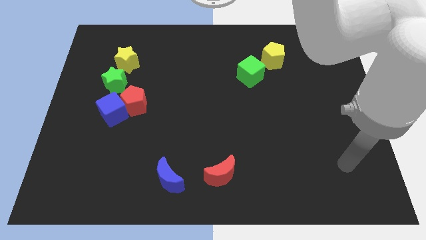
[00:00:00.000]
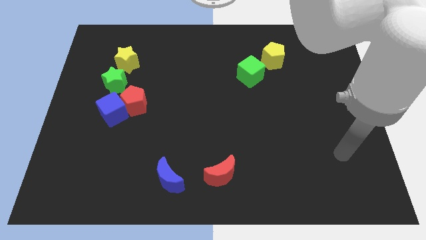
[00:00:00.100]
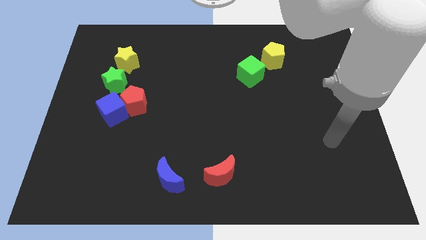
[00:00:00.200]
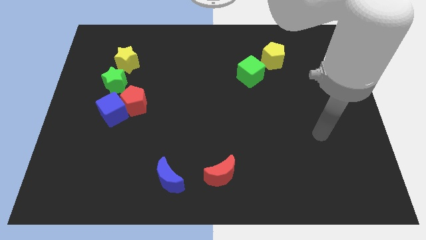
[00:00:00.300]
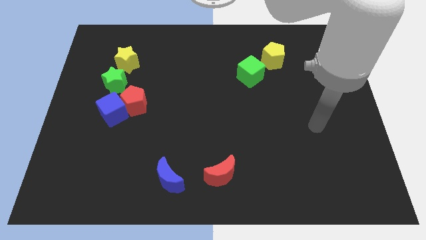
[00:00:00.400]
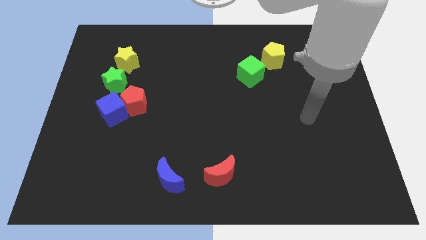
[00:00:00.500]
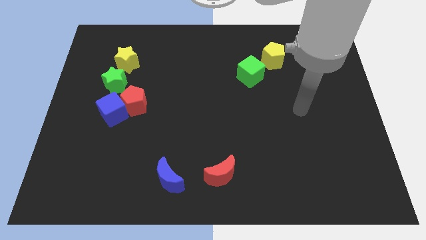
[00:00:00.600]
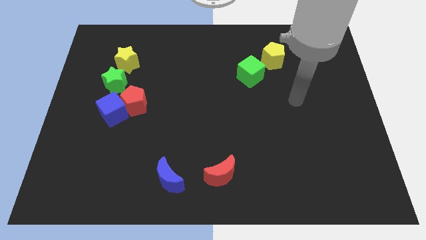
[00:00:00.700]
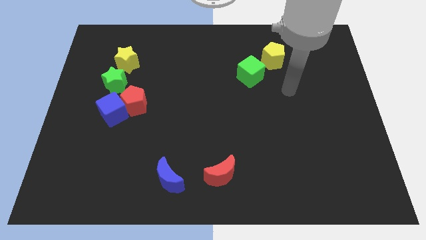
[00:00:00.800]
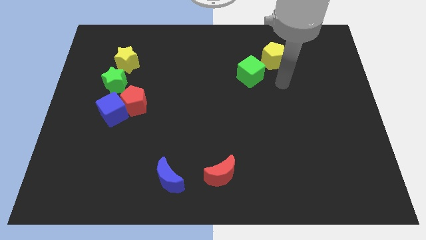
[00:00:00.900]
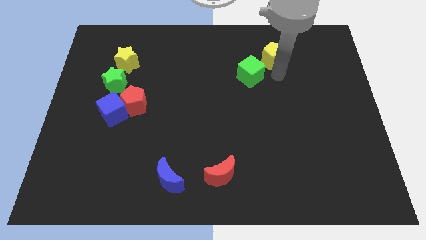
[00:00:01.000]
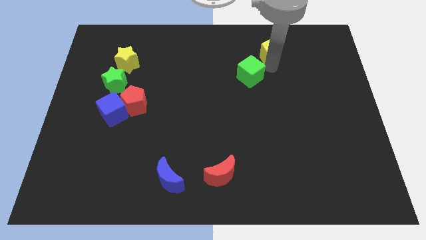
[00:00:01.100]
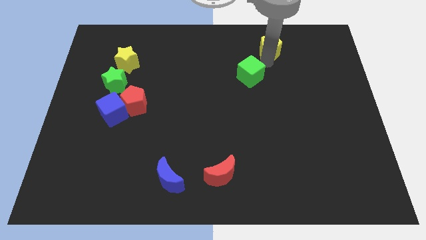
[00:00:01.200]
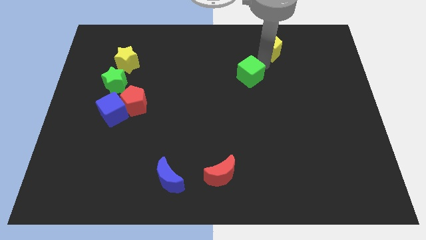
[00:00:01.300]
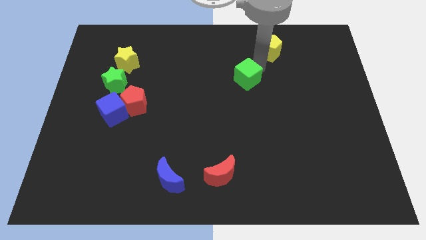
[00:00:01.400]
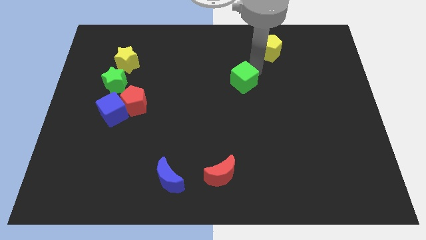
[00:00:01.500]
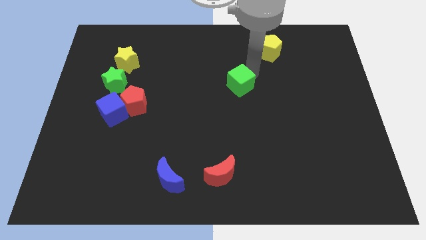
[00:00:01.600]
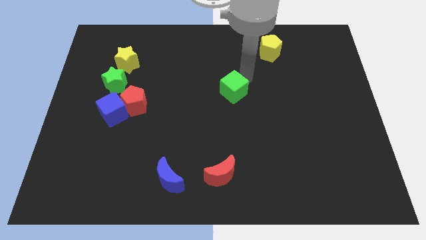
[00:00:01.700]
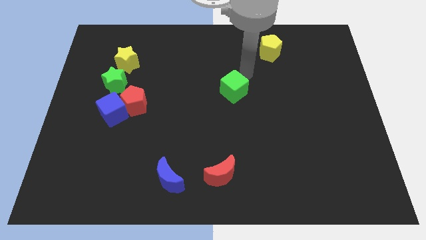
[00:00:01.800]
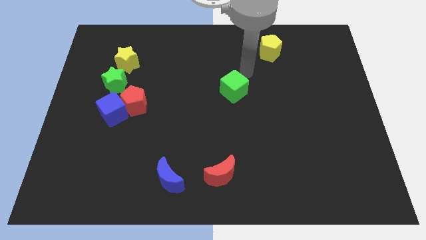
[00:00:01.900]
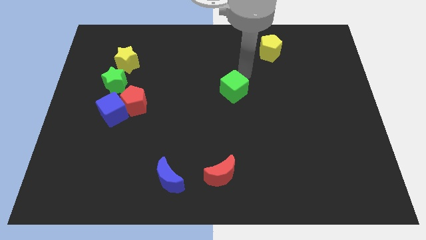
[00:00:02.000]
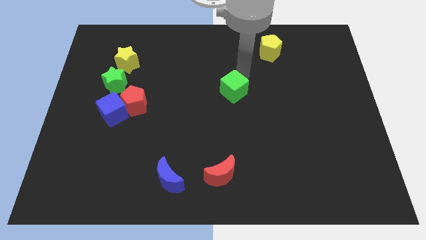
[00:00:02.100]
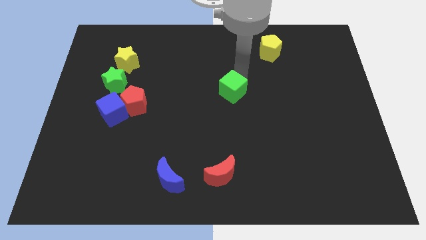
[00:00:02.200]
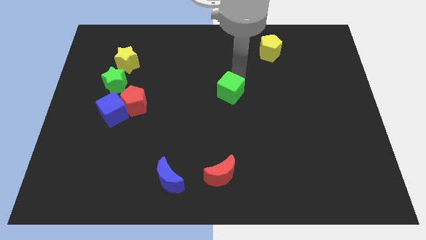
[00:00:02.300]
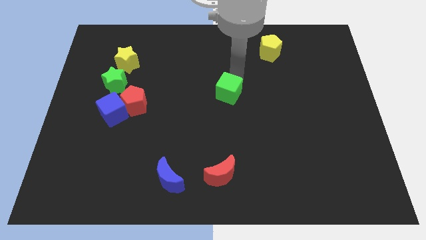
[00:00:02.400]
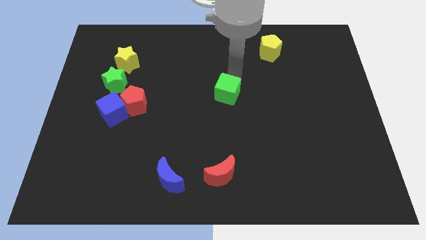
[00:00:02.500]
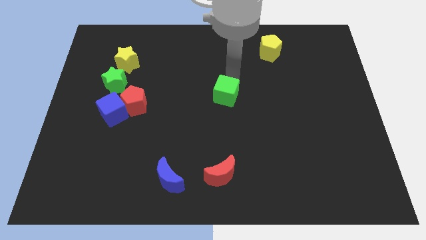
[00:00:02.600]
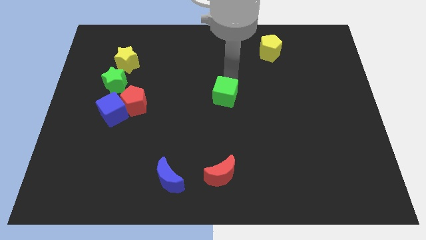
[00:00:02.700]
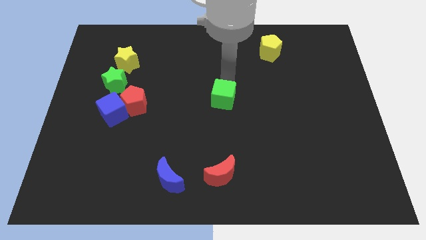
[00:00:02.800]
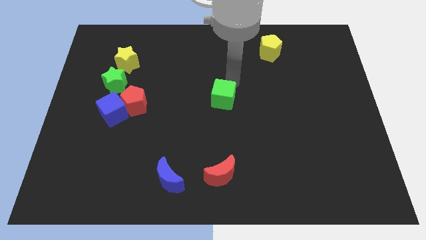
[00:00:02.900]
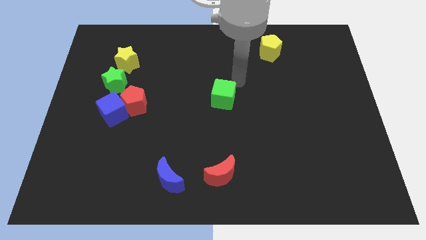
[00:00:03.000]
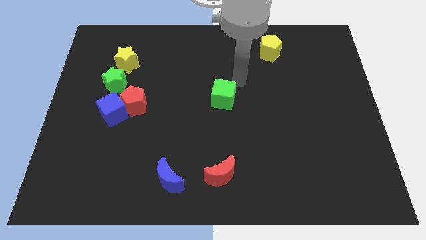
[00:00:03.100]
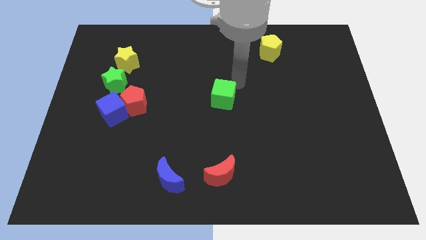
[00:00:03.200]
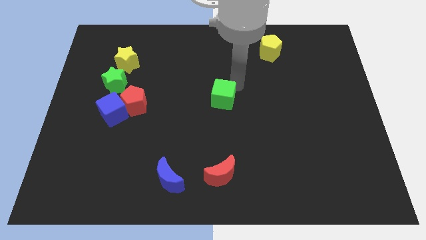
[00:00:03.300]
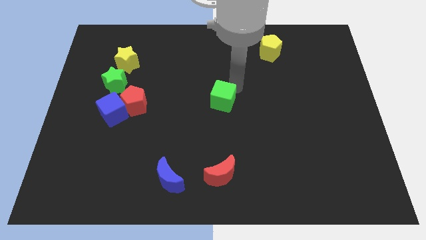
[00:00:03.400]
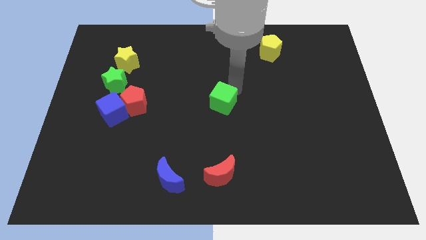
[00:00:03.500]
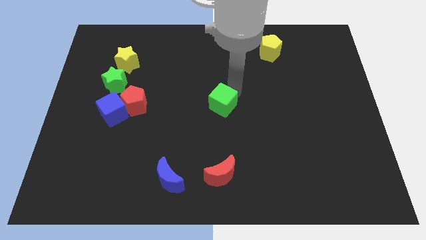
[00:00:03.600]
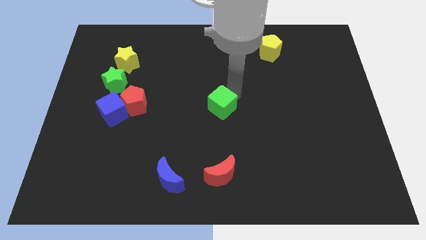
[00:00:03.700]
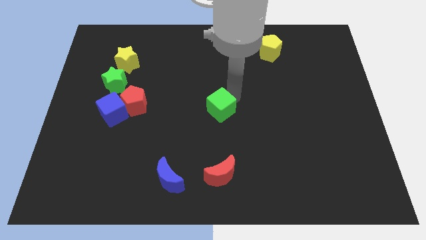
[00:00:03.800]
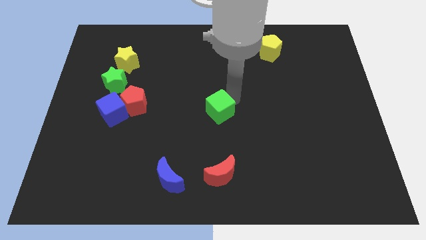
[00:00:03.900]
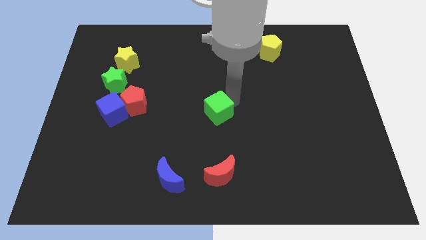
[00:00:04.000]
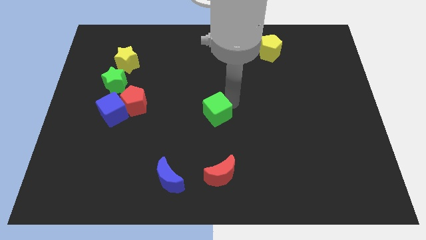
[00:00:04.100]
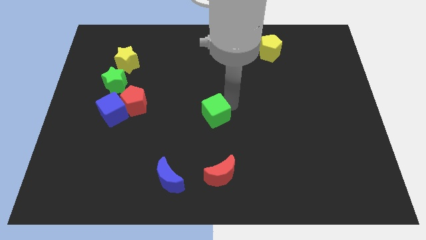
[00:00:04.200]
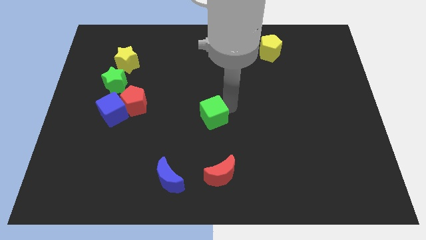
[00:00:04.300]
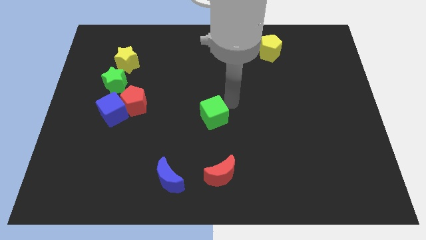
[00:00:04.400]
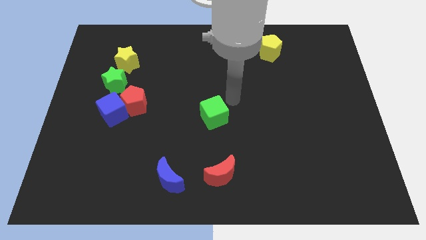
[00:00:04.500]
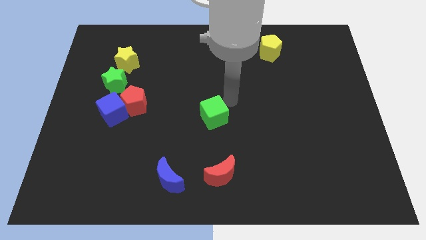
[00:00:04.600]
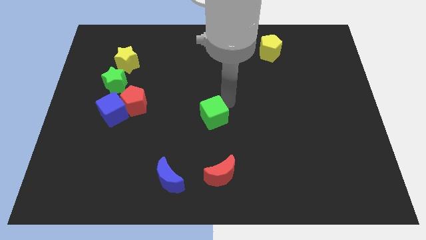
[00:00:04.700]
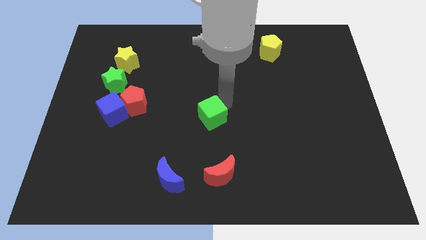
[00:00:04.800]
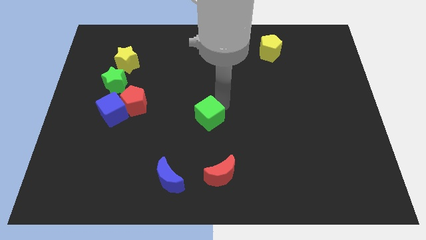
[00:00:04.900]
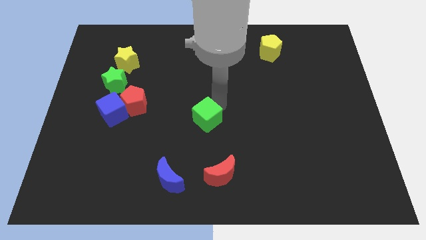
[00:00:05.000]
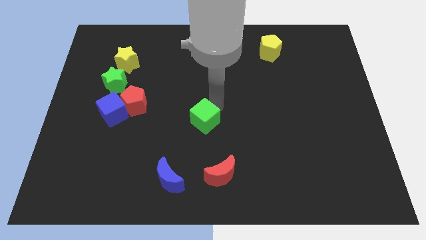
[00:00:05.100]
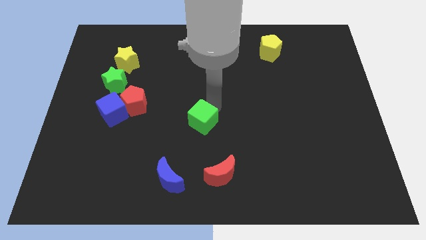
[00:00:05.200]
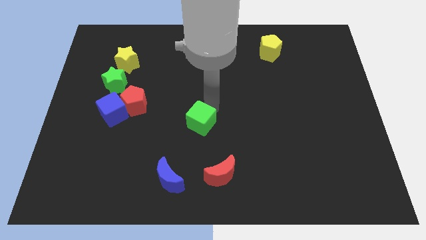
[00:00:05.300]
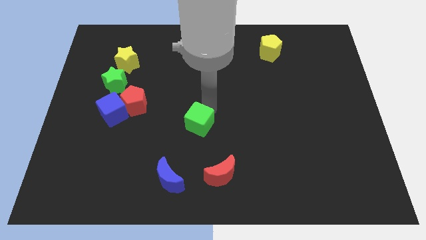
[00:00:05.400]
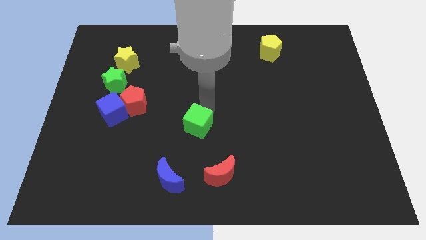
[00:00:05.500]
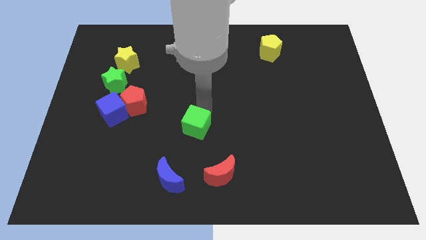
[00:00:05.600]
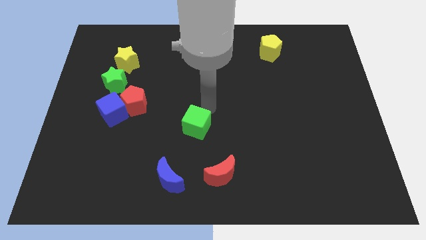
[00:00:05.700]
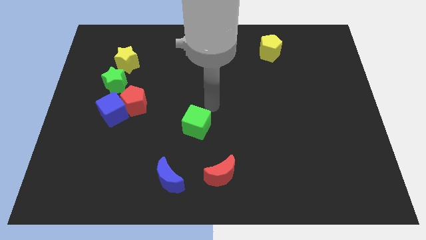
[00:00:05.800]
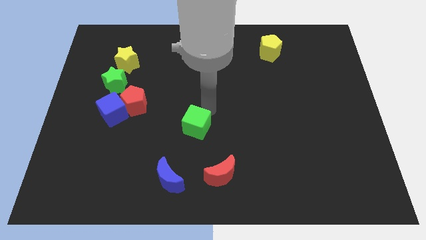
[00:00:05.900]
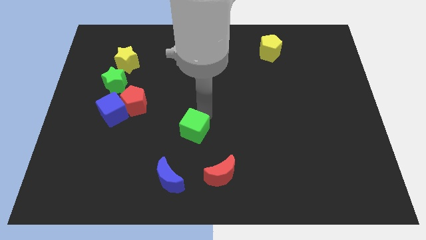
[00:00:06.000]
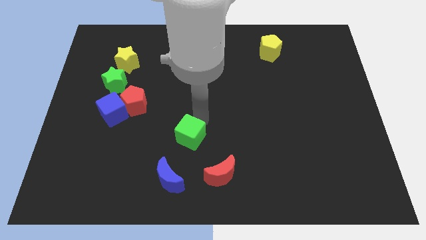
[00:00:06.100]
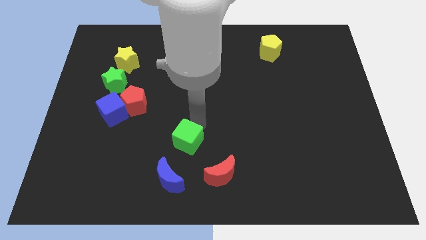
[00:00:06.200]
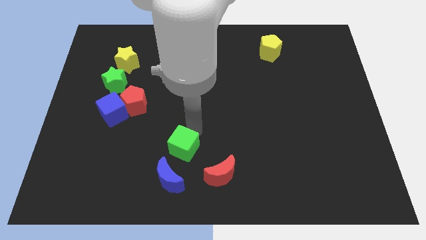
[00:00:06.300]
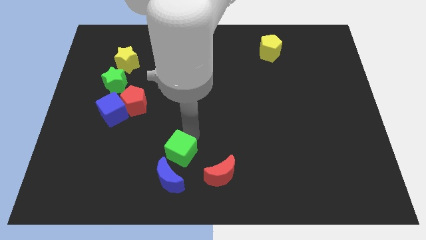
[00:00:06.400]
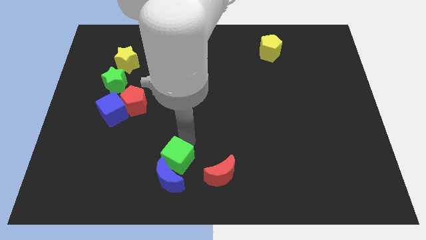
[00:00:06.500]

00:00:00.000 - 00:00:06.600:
slide the green cube to the blue moon
